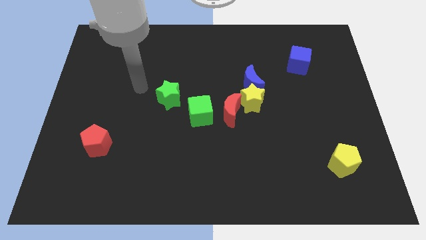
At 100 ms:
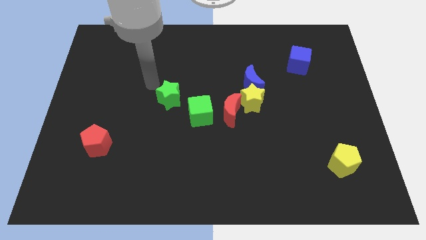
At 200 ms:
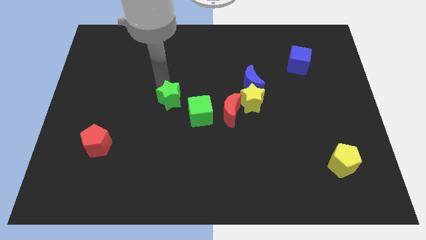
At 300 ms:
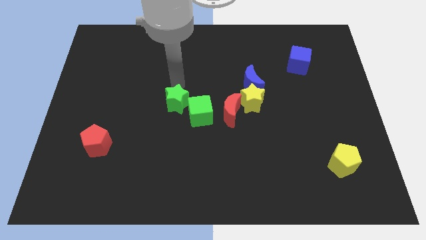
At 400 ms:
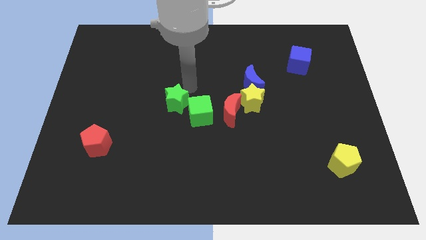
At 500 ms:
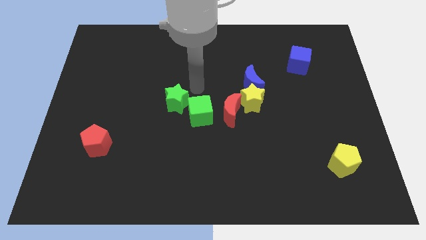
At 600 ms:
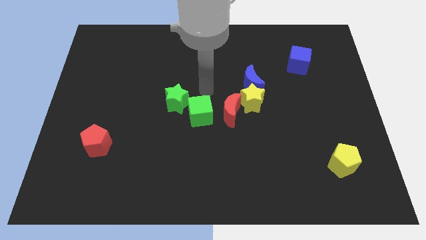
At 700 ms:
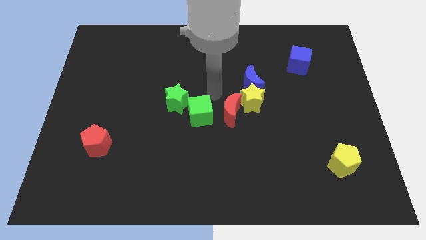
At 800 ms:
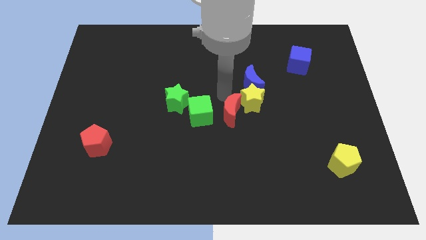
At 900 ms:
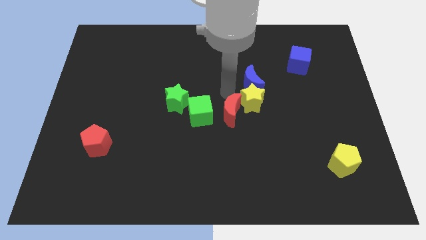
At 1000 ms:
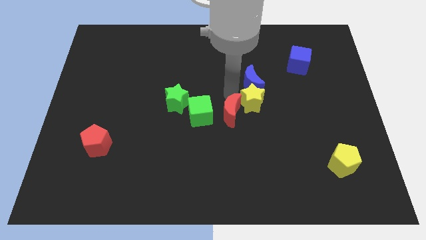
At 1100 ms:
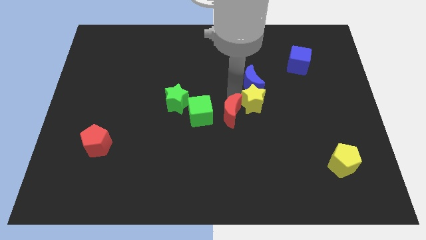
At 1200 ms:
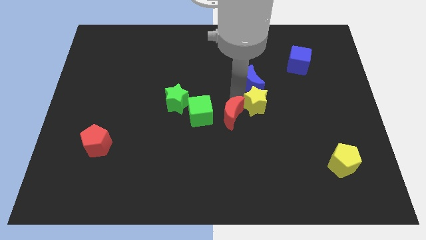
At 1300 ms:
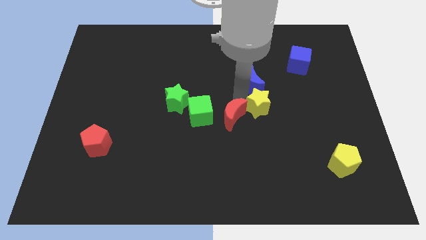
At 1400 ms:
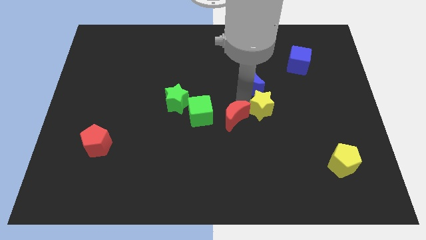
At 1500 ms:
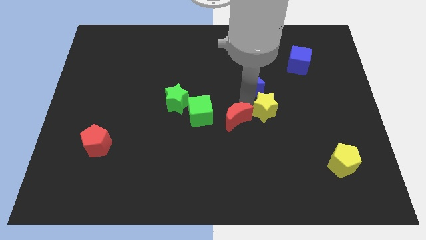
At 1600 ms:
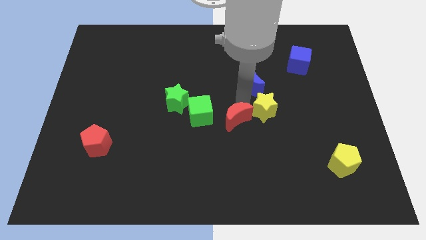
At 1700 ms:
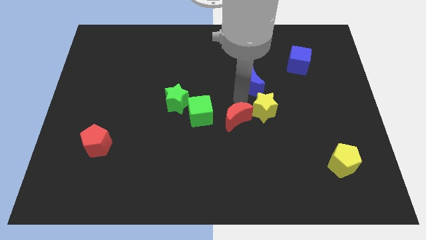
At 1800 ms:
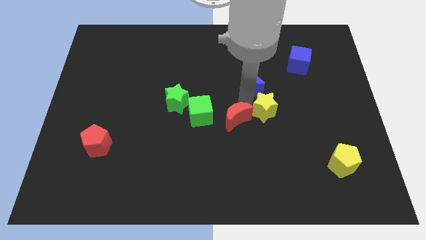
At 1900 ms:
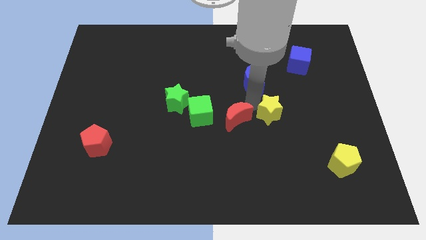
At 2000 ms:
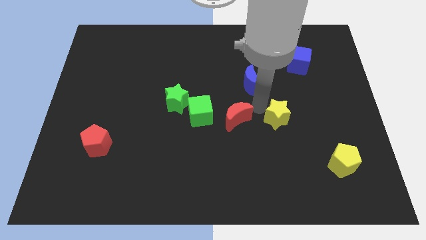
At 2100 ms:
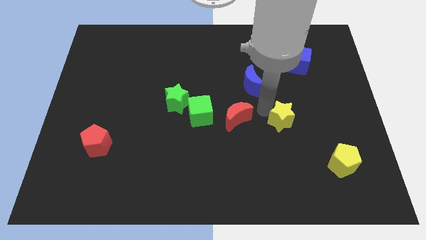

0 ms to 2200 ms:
separate the yellow star from the blue moon and red moon

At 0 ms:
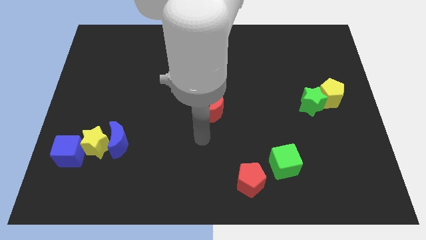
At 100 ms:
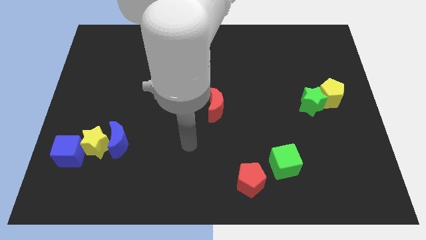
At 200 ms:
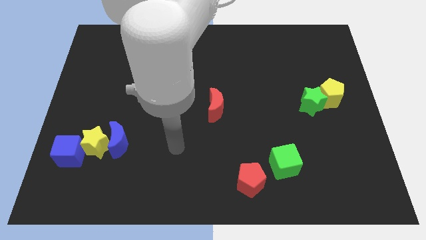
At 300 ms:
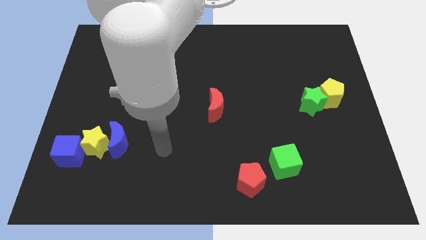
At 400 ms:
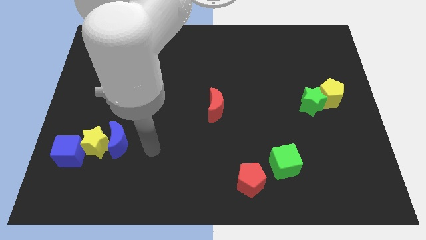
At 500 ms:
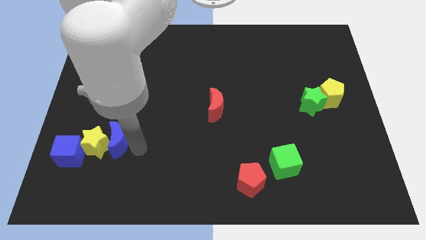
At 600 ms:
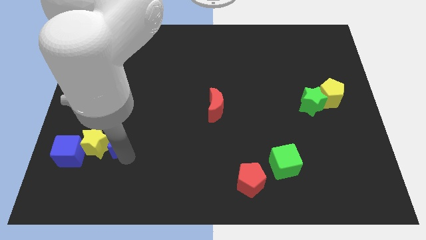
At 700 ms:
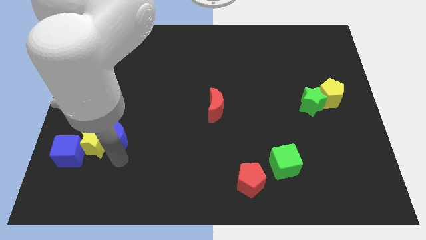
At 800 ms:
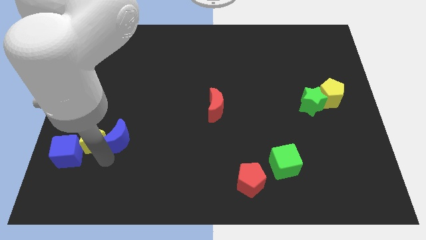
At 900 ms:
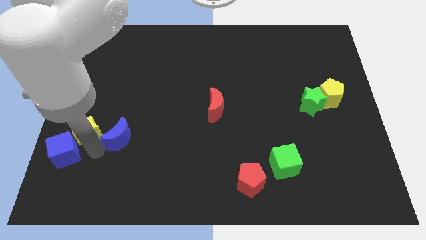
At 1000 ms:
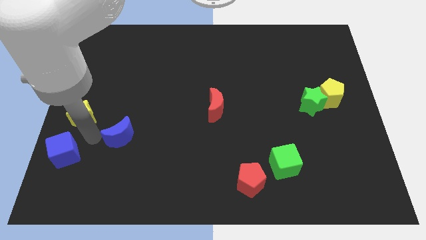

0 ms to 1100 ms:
pull the blue moon apart from the yellow star

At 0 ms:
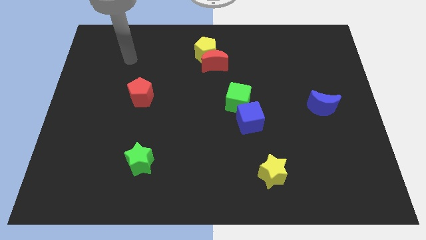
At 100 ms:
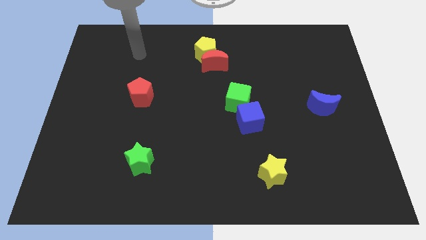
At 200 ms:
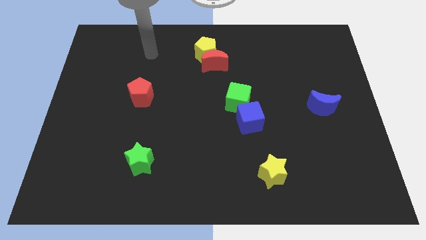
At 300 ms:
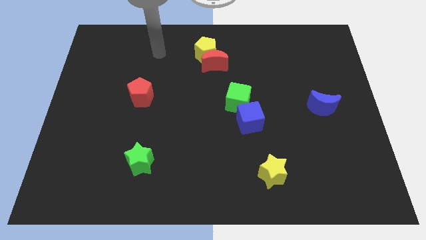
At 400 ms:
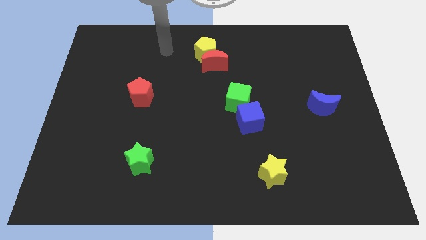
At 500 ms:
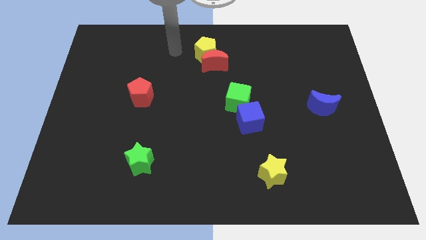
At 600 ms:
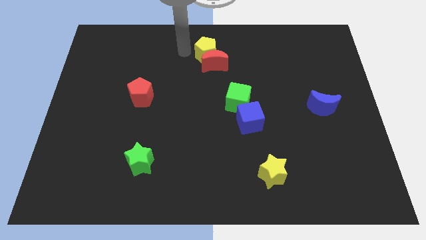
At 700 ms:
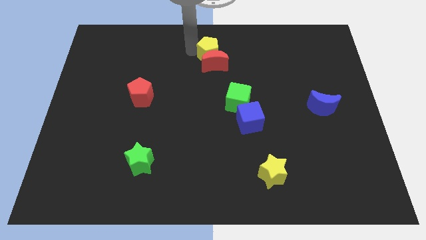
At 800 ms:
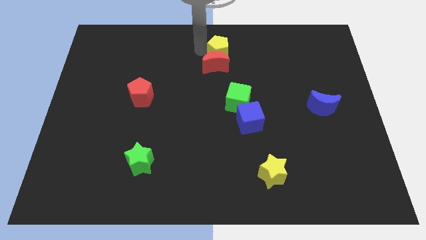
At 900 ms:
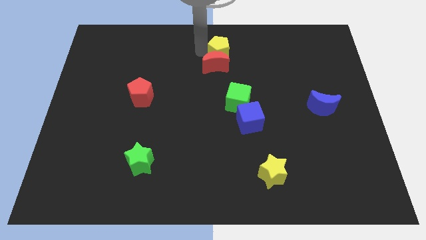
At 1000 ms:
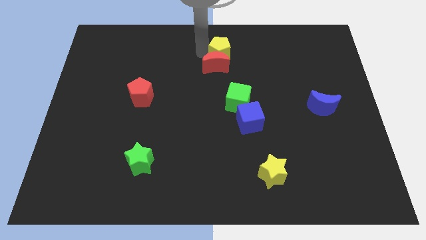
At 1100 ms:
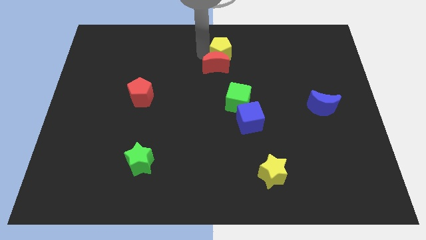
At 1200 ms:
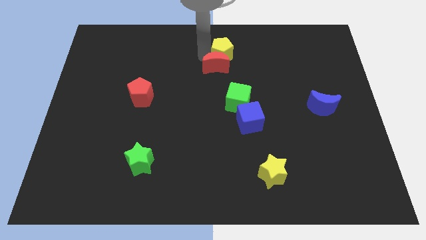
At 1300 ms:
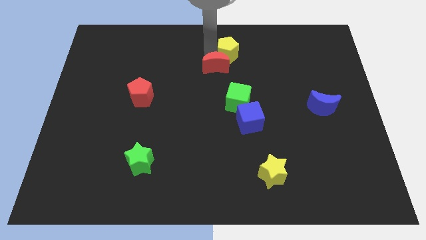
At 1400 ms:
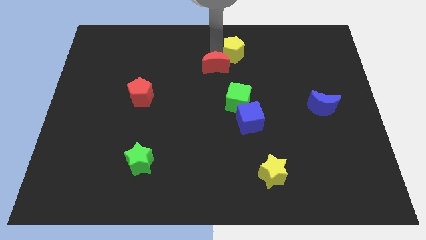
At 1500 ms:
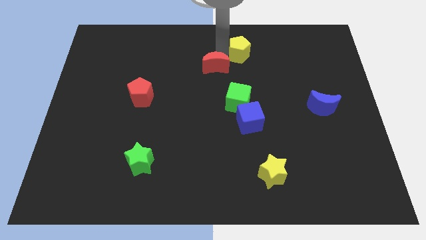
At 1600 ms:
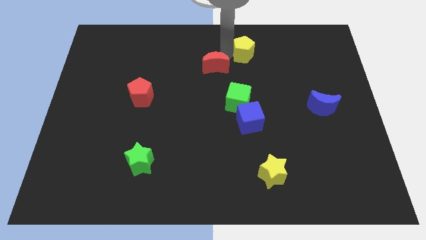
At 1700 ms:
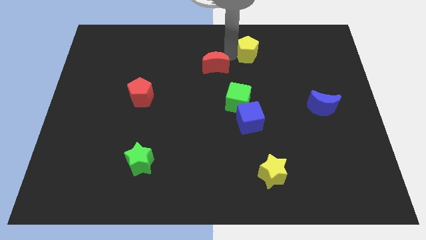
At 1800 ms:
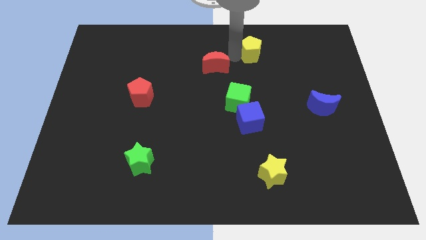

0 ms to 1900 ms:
separate the red moon from the yellow pentagon

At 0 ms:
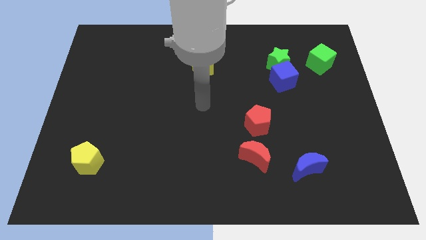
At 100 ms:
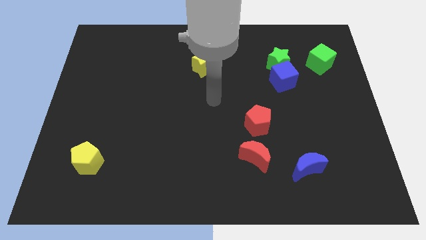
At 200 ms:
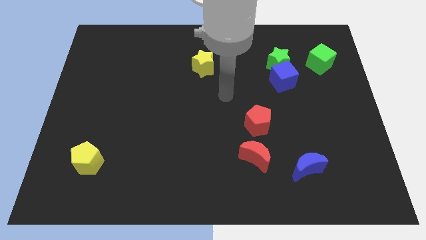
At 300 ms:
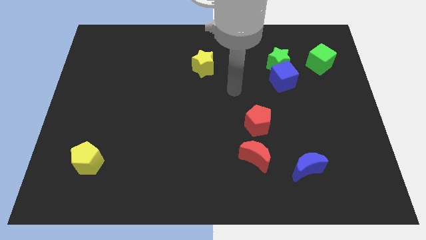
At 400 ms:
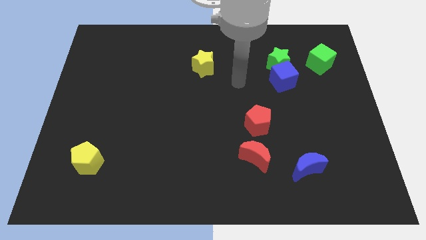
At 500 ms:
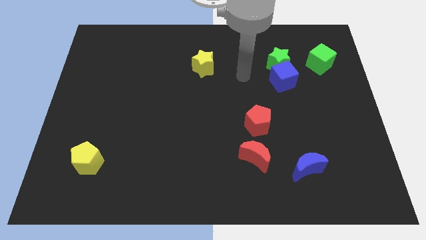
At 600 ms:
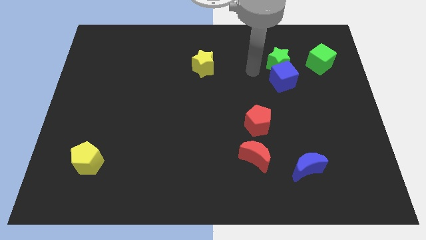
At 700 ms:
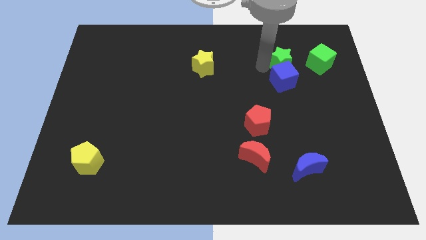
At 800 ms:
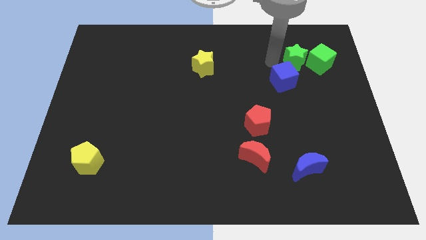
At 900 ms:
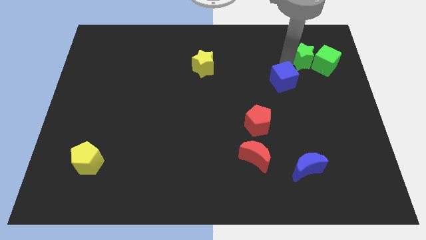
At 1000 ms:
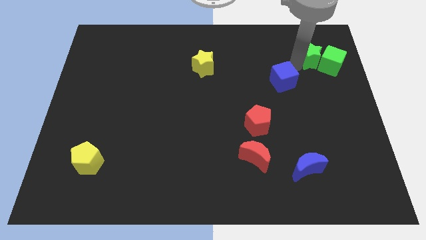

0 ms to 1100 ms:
separate the blue cube from the green star

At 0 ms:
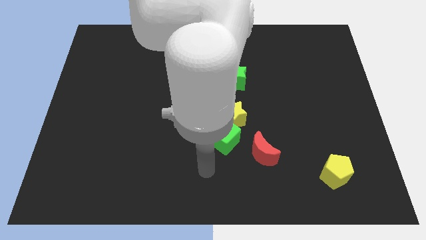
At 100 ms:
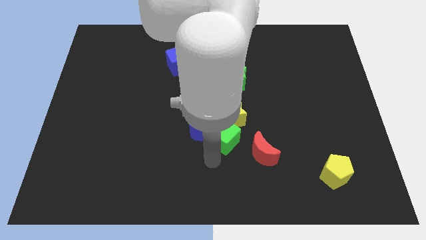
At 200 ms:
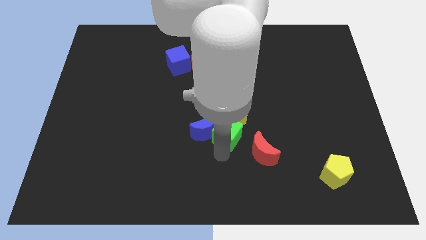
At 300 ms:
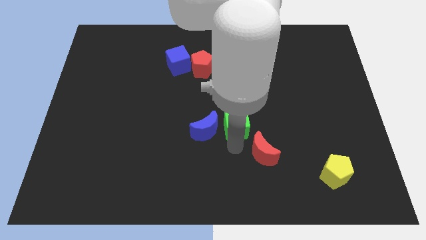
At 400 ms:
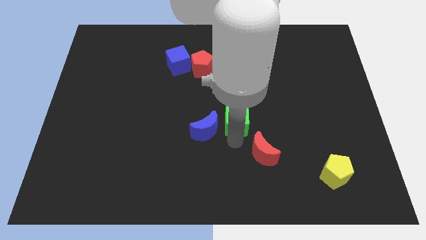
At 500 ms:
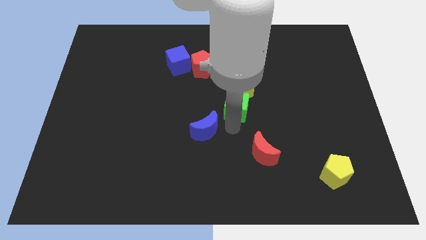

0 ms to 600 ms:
separate the blue moon from the green cube and yellow star

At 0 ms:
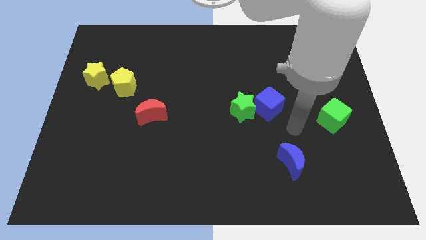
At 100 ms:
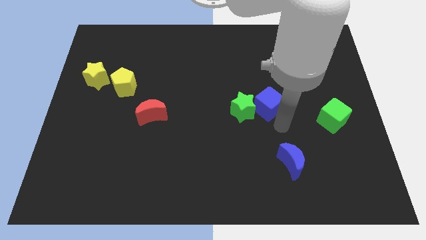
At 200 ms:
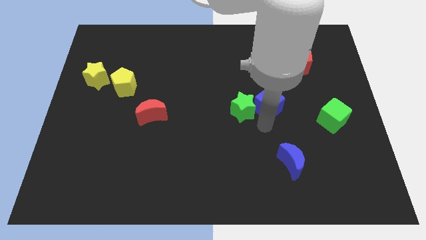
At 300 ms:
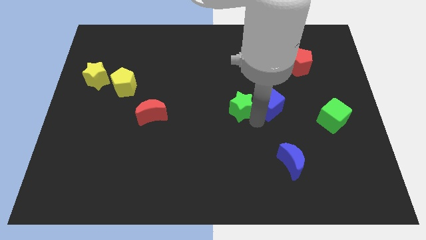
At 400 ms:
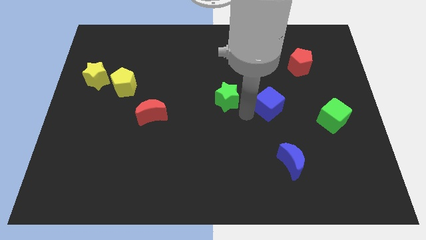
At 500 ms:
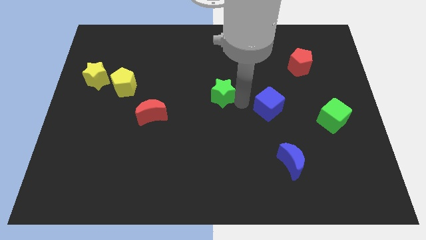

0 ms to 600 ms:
move the blue cube away from the green star

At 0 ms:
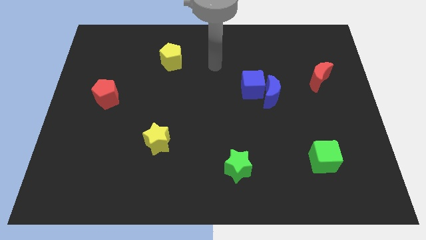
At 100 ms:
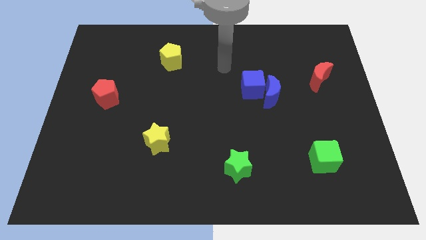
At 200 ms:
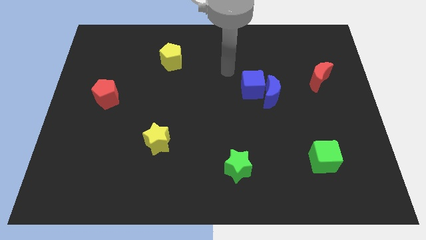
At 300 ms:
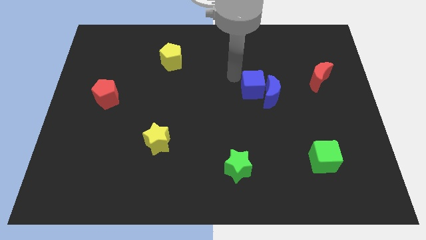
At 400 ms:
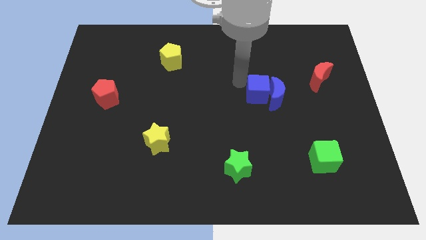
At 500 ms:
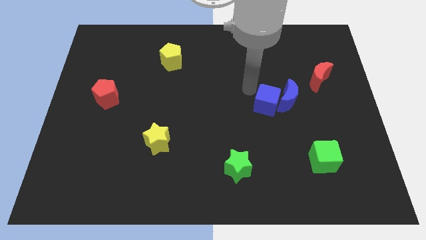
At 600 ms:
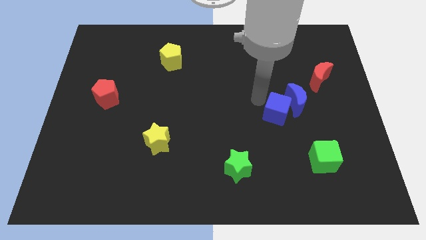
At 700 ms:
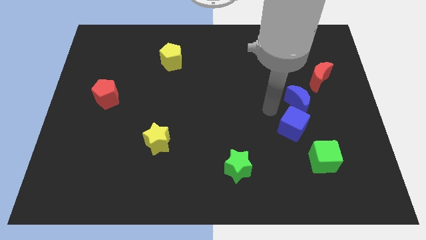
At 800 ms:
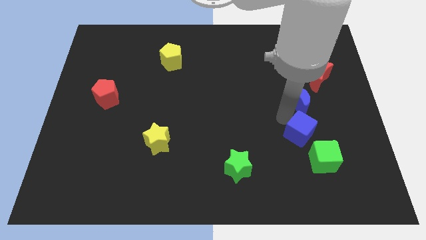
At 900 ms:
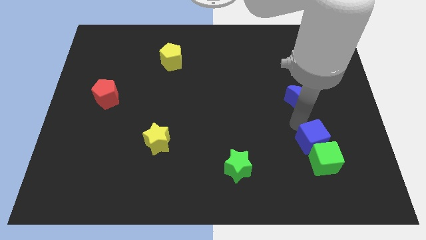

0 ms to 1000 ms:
separate the blue moon from the blue cube

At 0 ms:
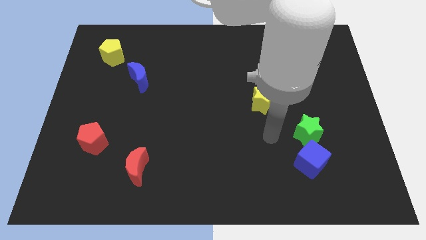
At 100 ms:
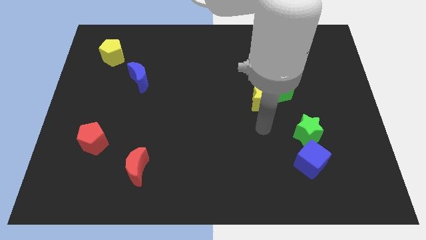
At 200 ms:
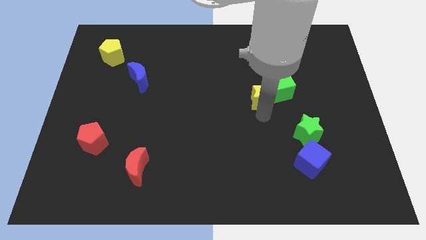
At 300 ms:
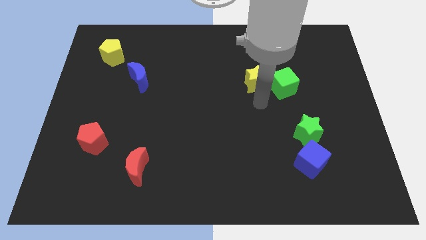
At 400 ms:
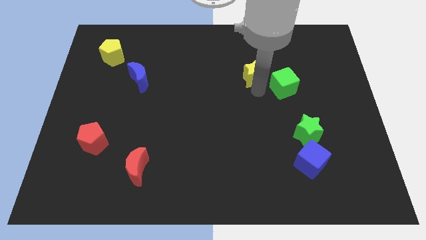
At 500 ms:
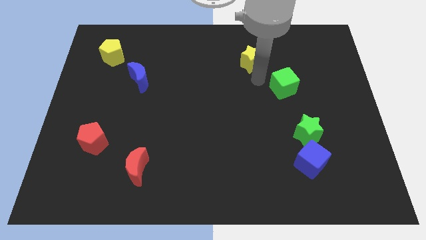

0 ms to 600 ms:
move the green cube away from the yellow star

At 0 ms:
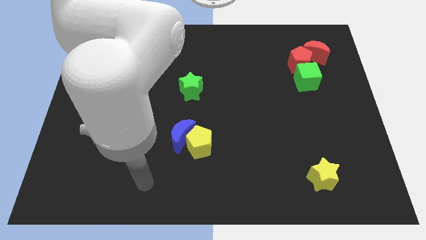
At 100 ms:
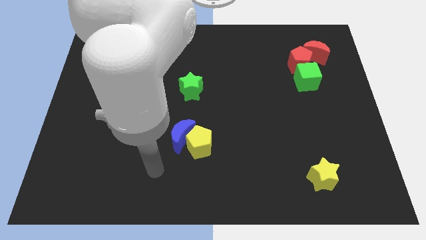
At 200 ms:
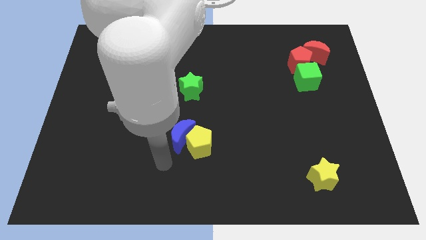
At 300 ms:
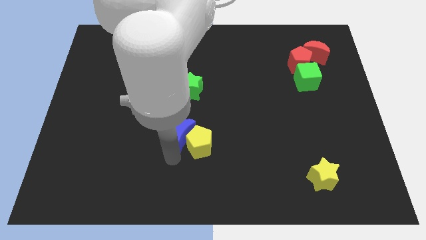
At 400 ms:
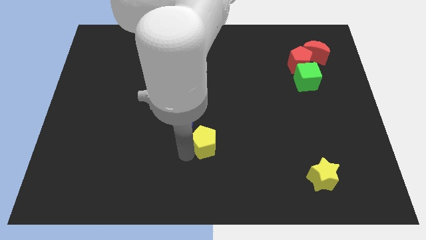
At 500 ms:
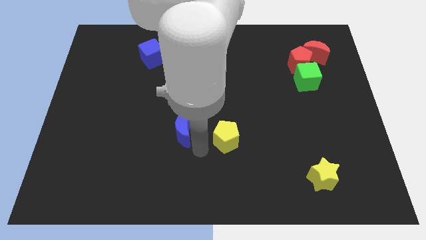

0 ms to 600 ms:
move the blue moon away from the yellow pentagon
